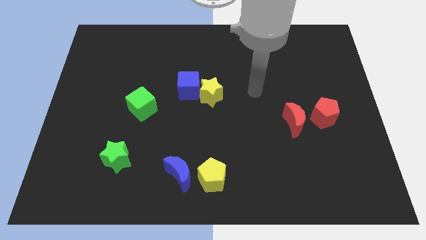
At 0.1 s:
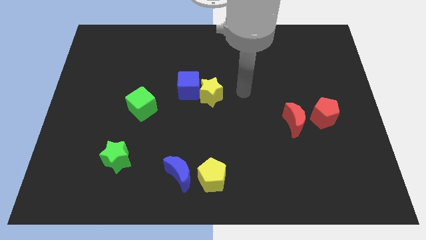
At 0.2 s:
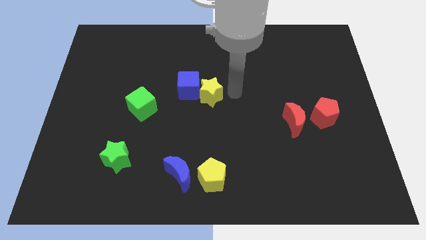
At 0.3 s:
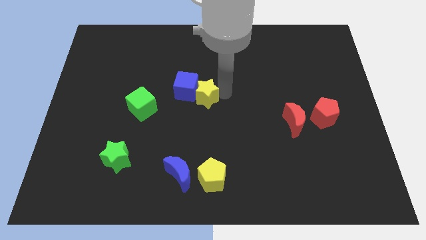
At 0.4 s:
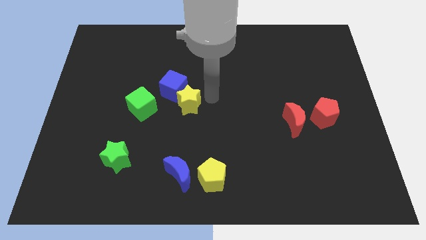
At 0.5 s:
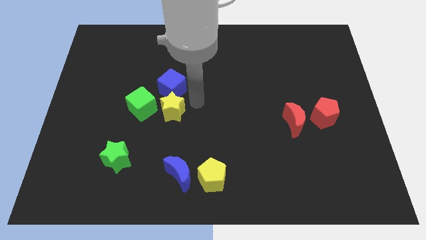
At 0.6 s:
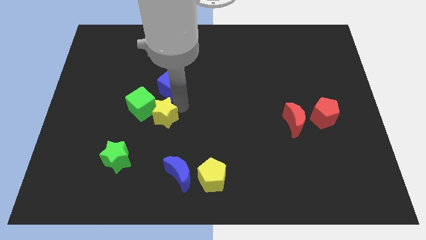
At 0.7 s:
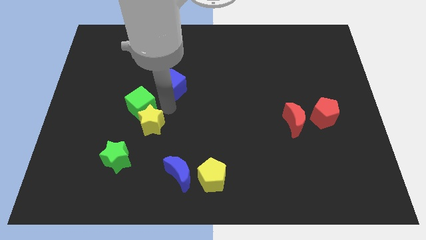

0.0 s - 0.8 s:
move the blue cube away from the yellow star

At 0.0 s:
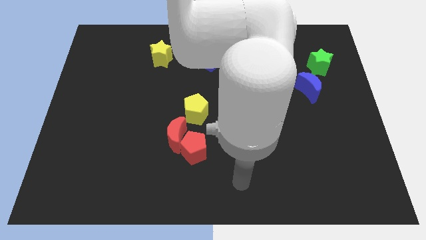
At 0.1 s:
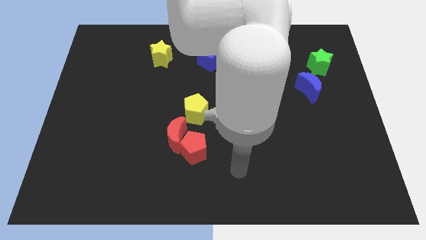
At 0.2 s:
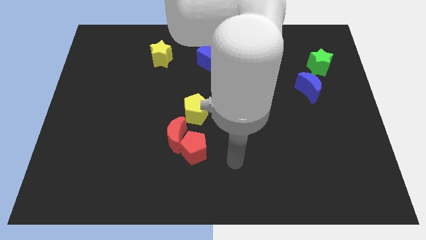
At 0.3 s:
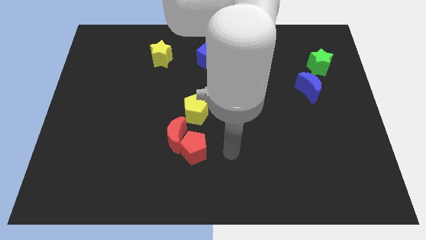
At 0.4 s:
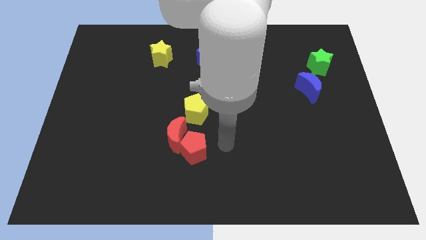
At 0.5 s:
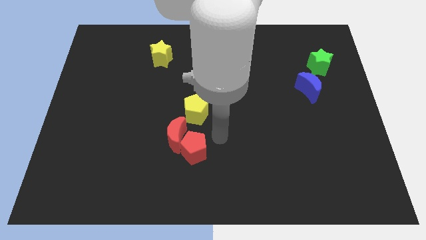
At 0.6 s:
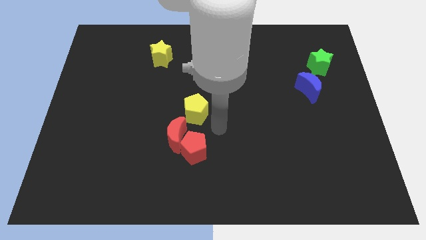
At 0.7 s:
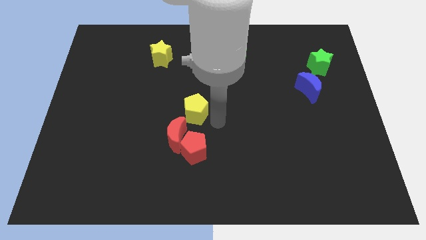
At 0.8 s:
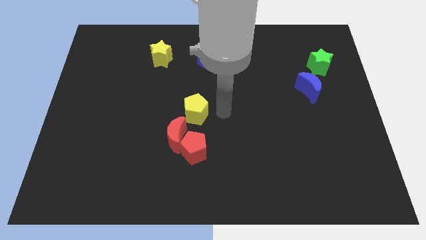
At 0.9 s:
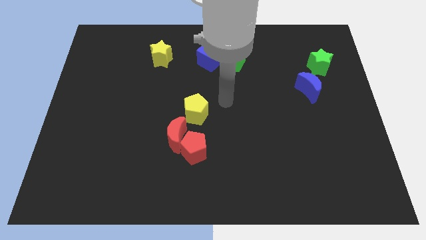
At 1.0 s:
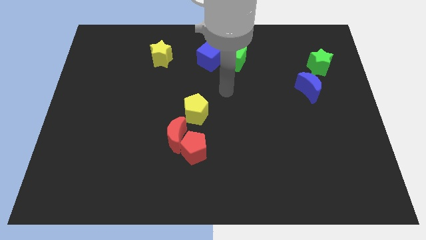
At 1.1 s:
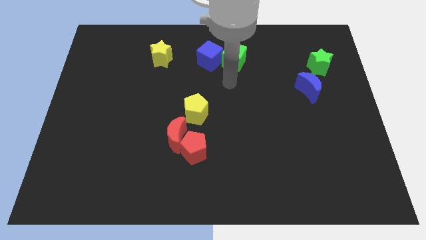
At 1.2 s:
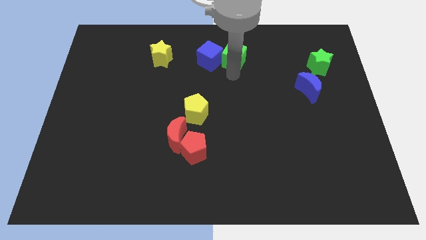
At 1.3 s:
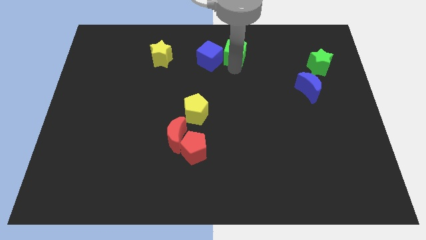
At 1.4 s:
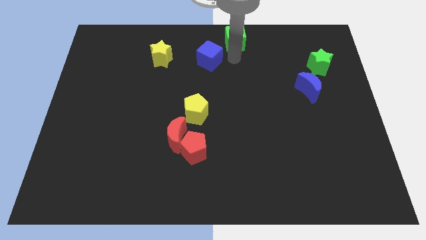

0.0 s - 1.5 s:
move the blue cube away from the green cube

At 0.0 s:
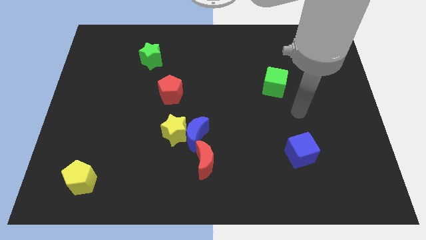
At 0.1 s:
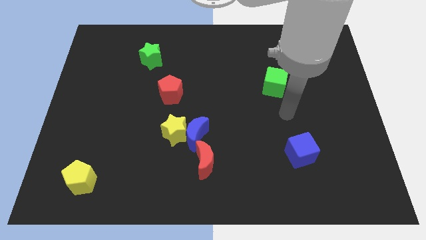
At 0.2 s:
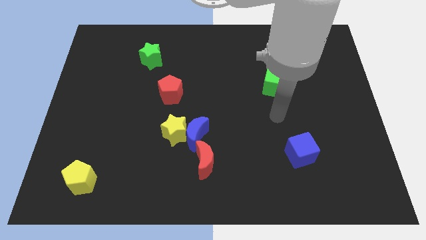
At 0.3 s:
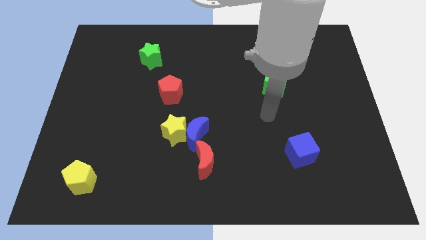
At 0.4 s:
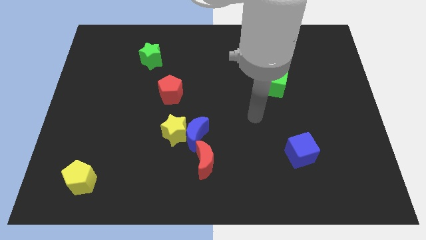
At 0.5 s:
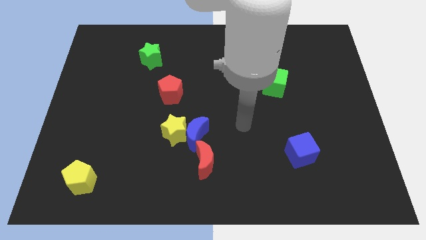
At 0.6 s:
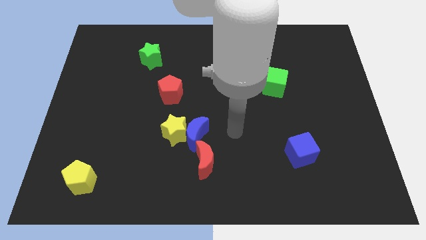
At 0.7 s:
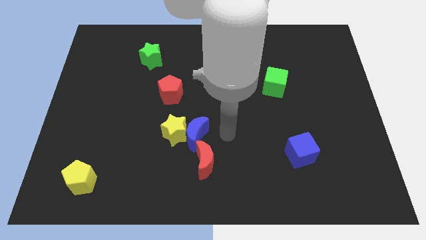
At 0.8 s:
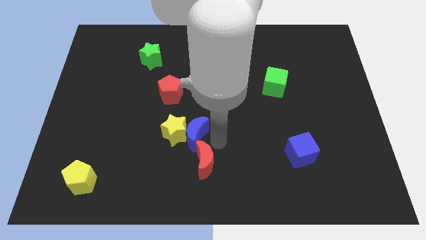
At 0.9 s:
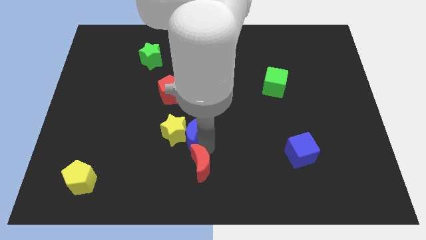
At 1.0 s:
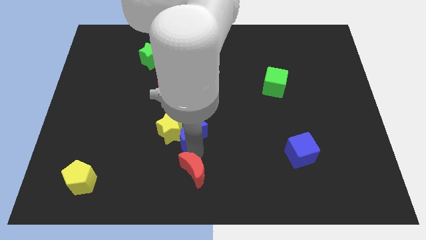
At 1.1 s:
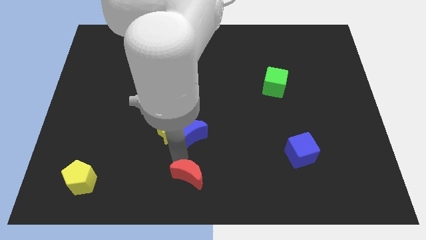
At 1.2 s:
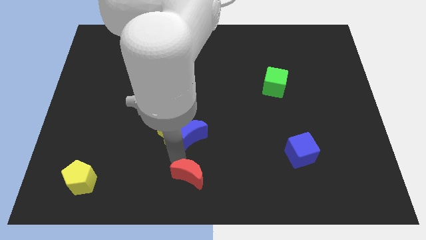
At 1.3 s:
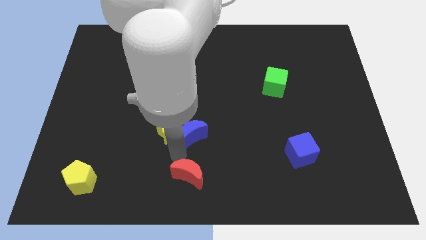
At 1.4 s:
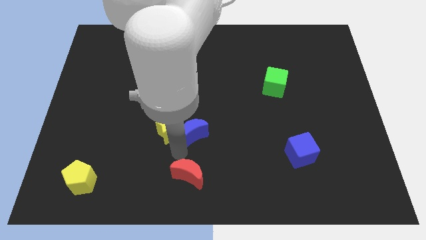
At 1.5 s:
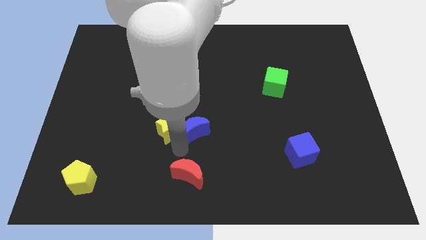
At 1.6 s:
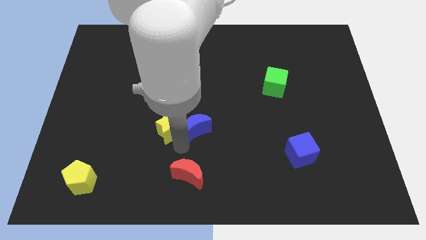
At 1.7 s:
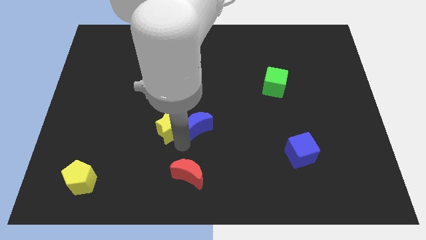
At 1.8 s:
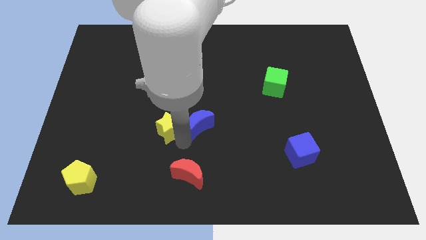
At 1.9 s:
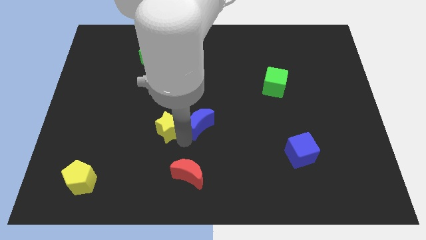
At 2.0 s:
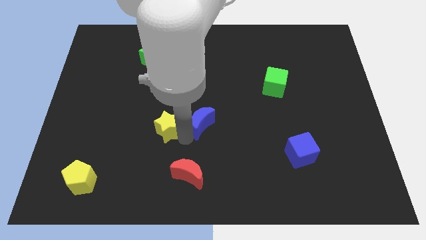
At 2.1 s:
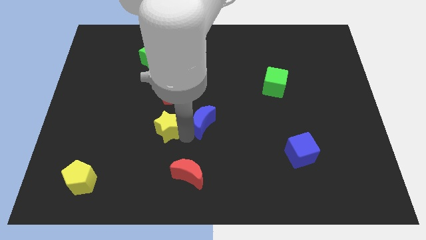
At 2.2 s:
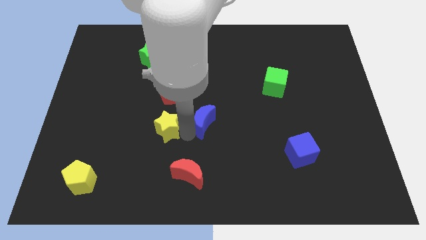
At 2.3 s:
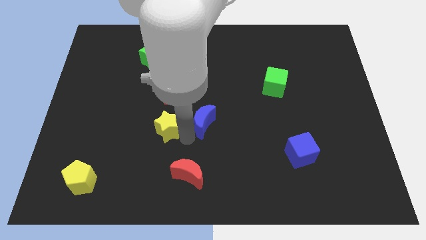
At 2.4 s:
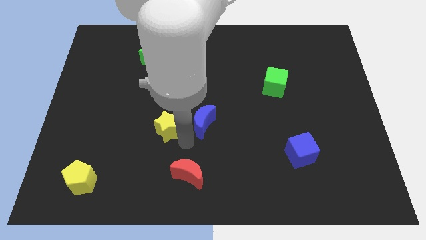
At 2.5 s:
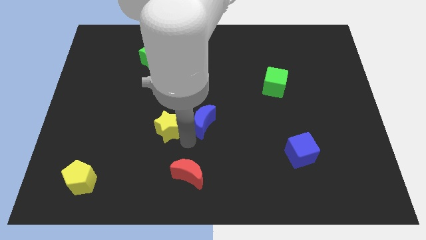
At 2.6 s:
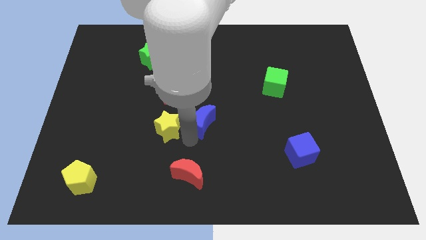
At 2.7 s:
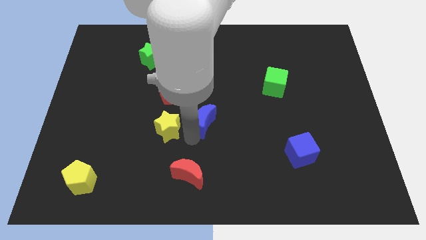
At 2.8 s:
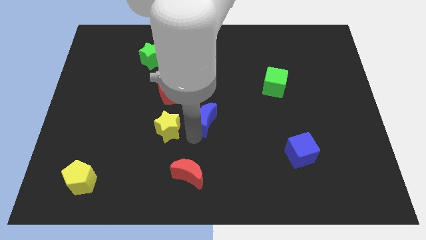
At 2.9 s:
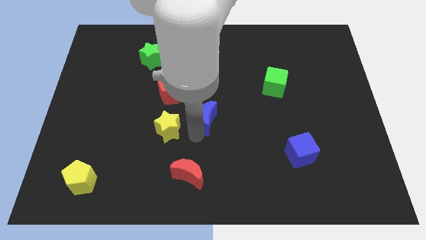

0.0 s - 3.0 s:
separate the blue moon from the yellow star and red moon

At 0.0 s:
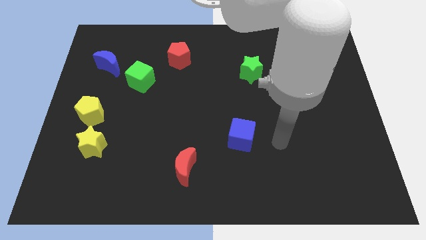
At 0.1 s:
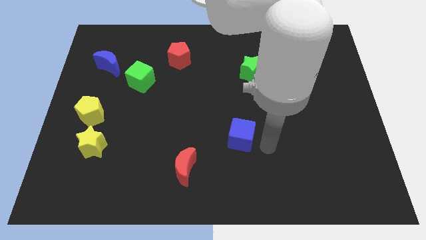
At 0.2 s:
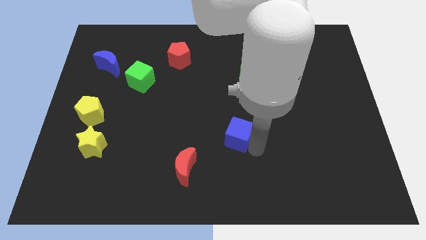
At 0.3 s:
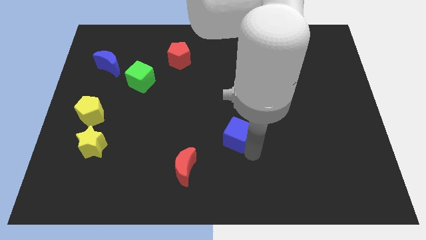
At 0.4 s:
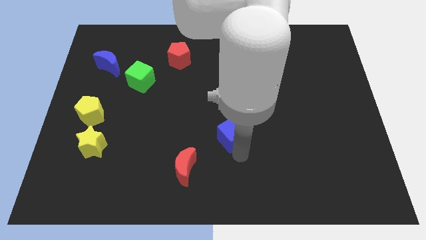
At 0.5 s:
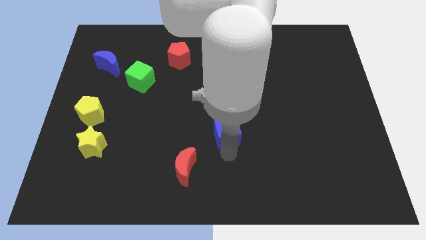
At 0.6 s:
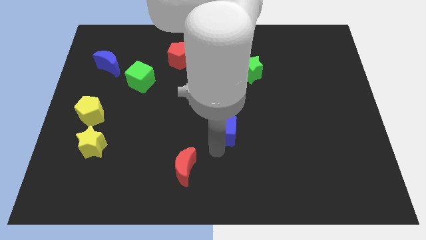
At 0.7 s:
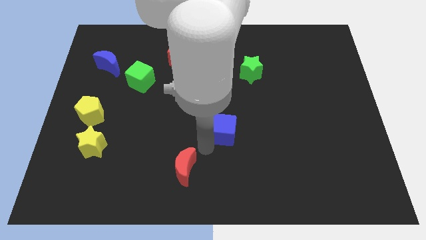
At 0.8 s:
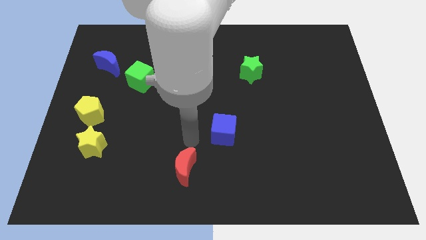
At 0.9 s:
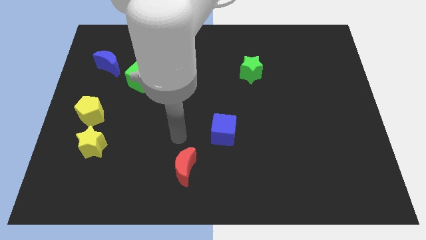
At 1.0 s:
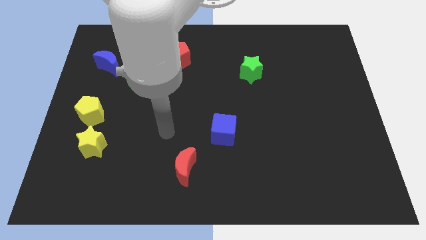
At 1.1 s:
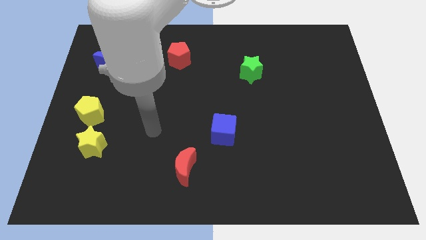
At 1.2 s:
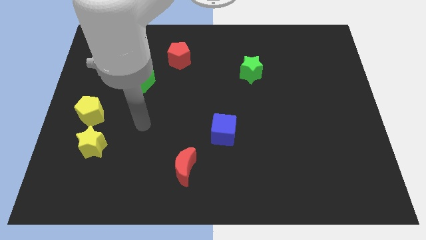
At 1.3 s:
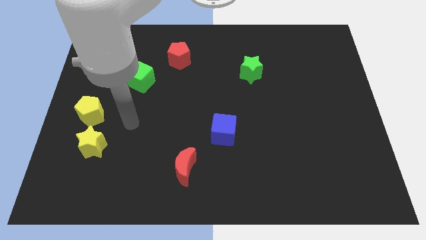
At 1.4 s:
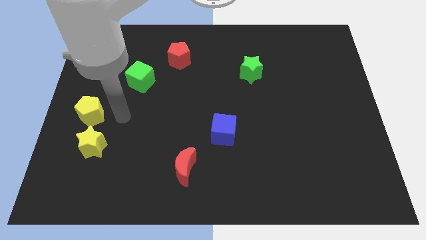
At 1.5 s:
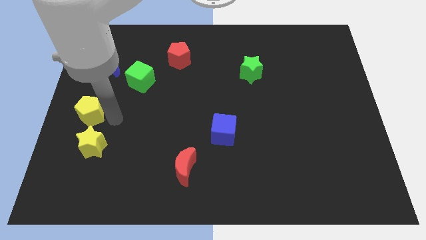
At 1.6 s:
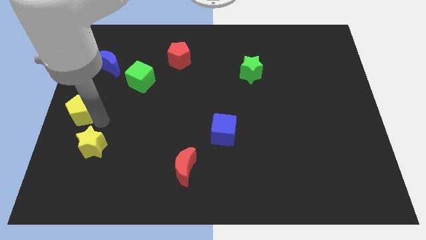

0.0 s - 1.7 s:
separate the yellow star from the yellow pentagon

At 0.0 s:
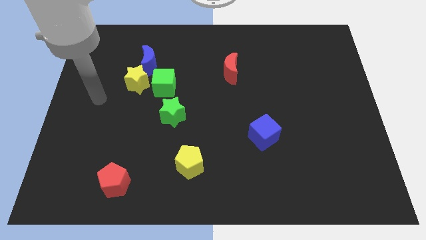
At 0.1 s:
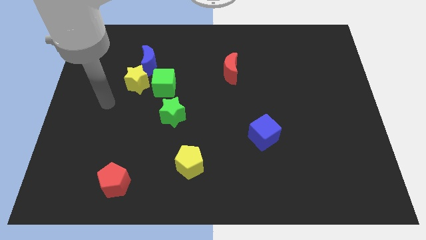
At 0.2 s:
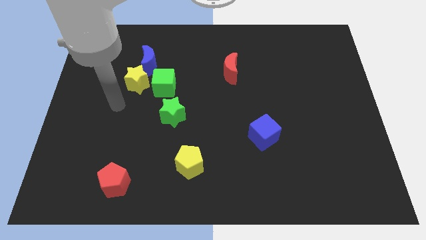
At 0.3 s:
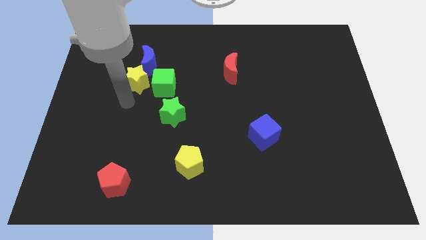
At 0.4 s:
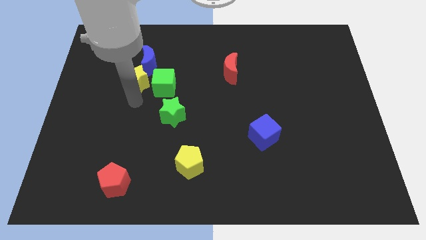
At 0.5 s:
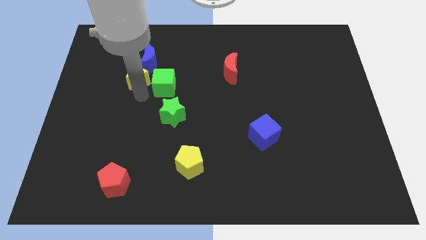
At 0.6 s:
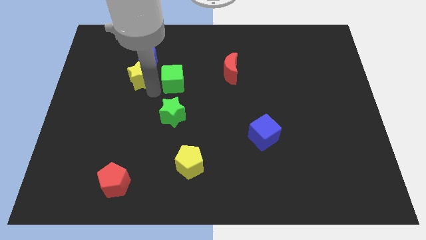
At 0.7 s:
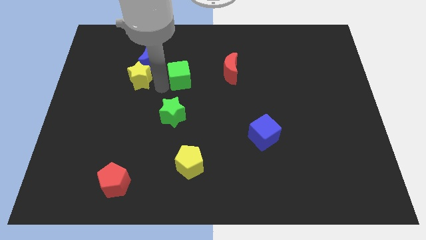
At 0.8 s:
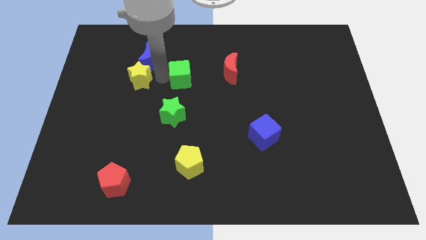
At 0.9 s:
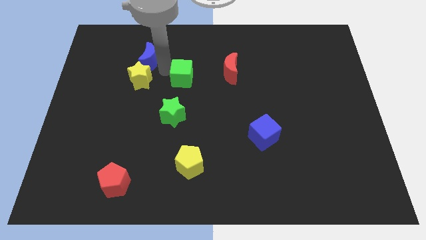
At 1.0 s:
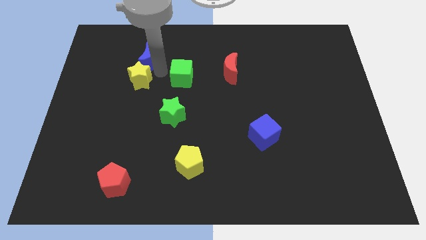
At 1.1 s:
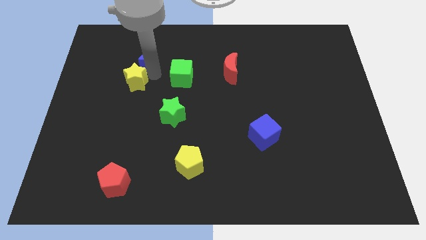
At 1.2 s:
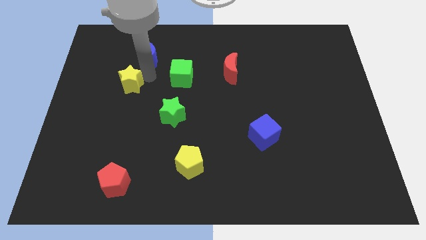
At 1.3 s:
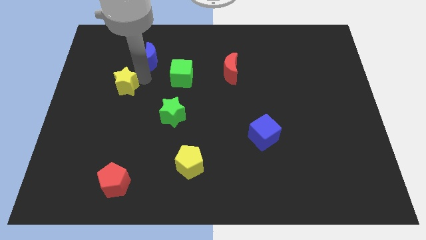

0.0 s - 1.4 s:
move the yellow star away from the green cube and blue moon

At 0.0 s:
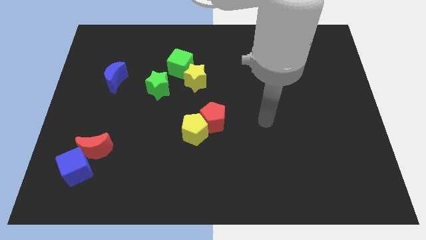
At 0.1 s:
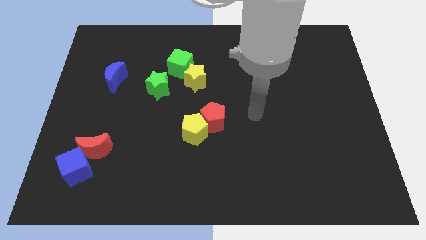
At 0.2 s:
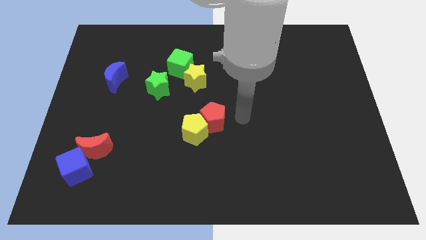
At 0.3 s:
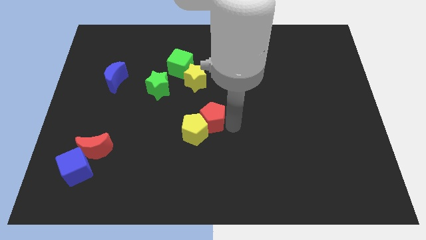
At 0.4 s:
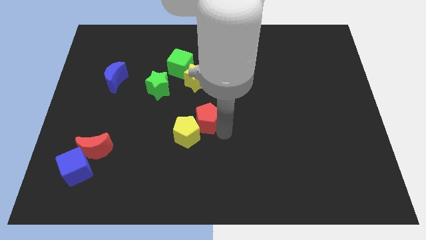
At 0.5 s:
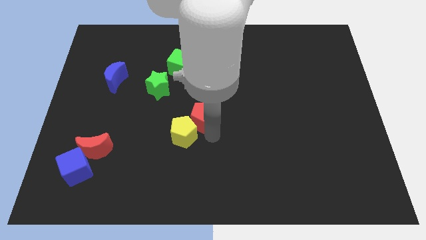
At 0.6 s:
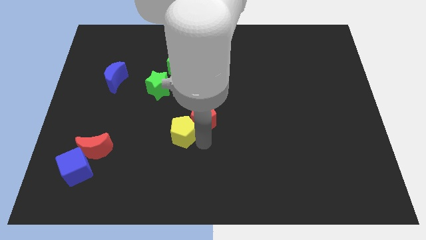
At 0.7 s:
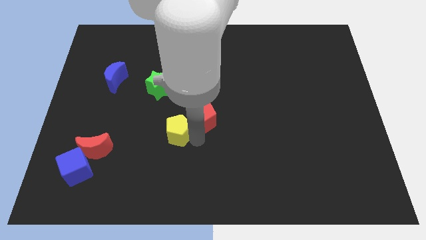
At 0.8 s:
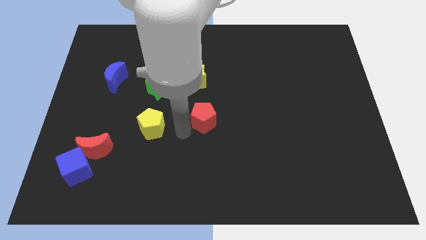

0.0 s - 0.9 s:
move the red pentagon away from the yellow pentagon
